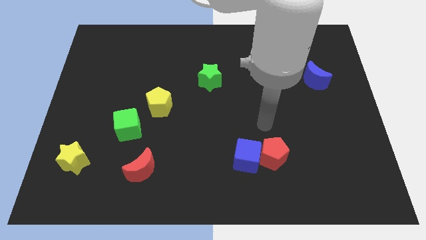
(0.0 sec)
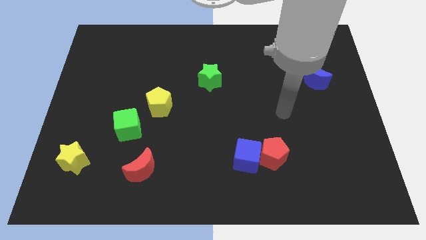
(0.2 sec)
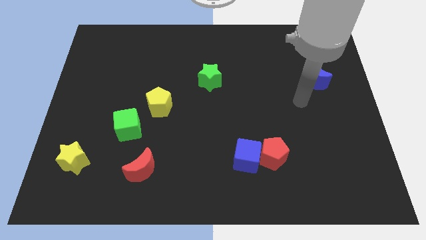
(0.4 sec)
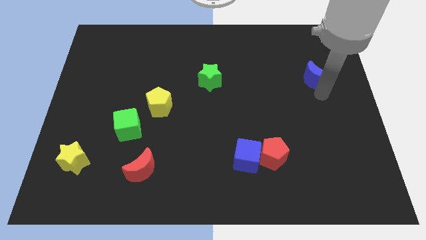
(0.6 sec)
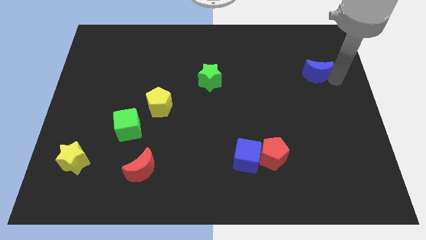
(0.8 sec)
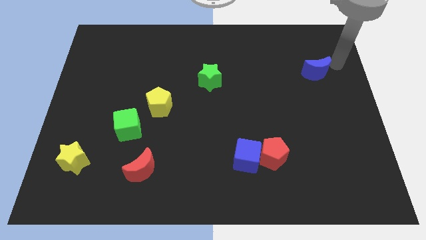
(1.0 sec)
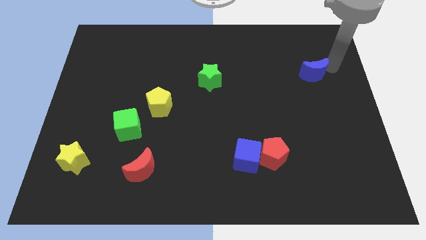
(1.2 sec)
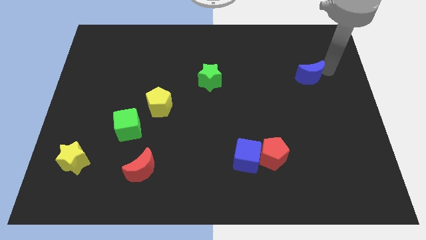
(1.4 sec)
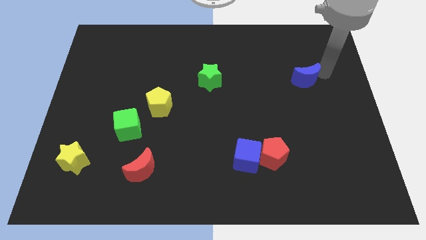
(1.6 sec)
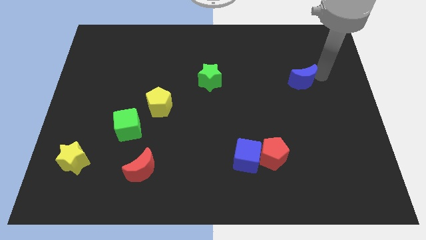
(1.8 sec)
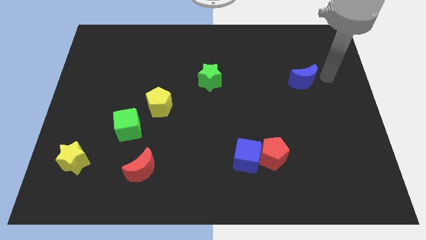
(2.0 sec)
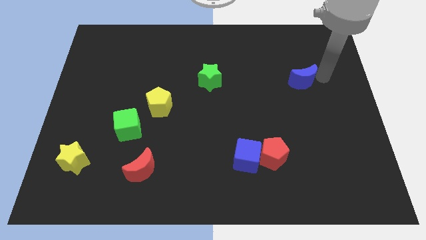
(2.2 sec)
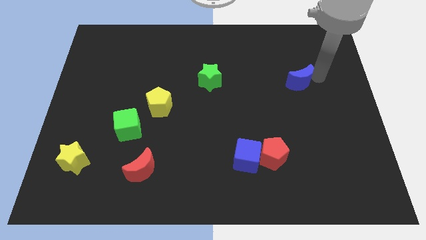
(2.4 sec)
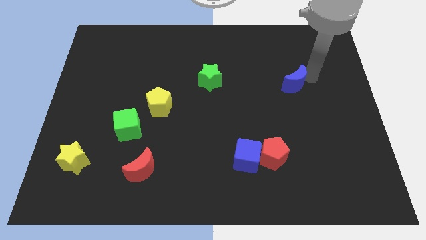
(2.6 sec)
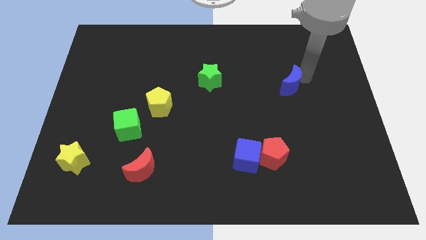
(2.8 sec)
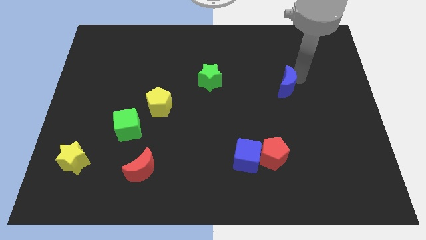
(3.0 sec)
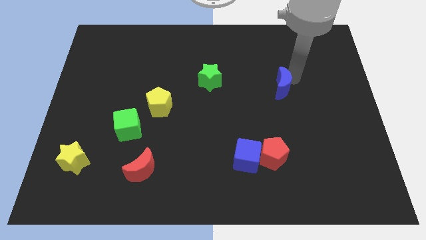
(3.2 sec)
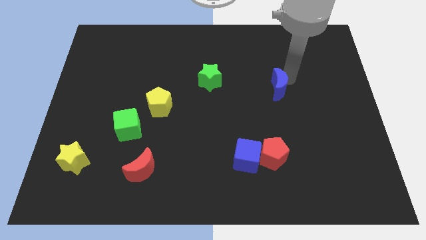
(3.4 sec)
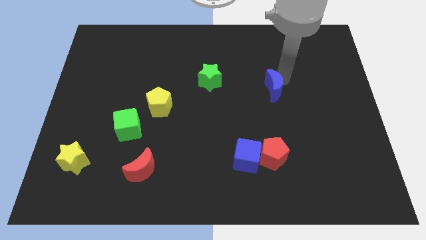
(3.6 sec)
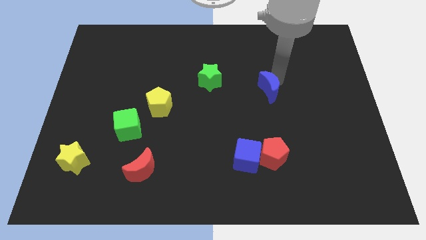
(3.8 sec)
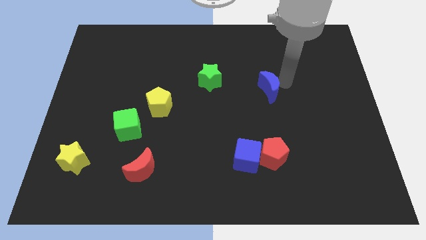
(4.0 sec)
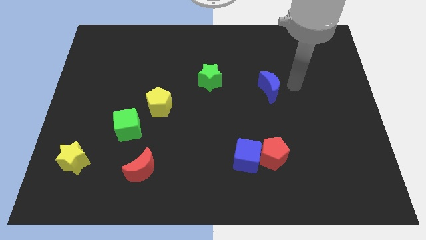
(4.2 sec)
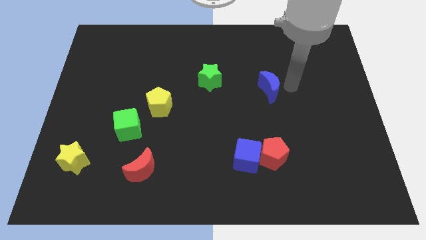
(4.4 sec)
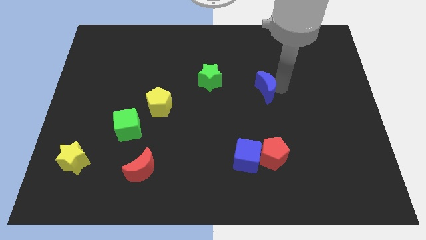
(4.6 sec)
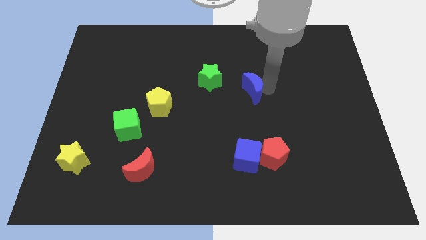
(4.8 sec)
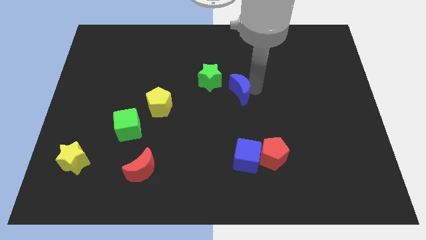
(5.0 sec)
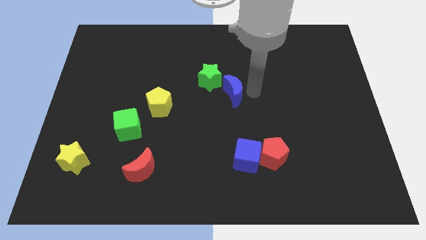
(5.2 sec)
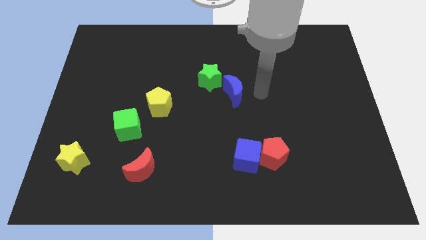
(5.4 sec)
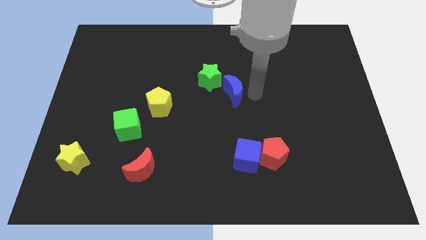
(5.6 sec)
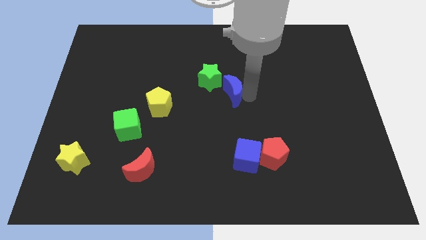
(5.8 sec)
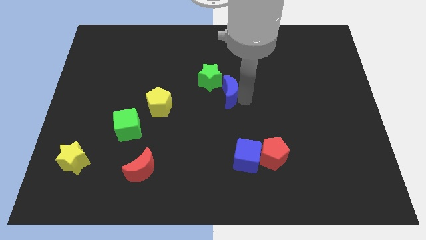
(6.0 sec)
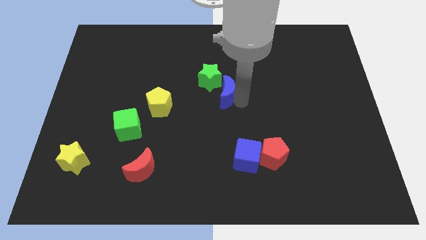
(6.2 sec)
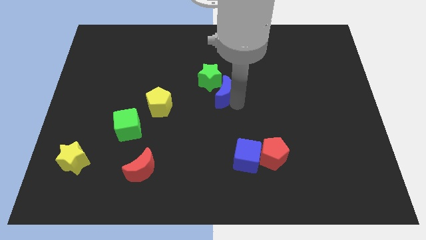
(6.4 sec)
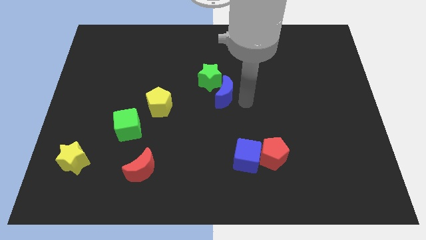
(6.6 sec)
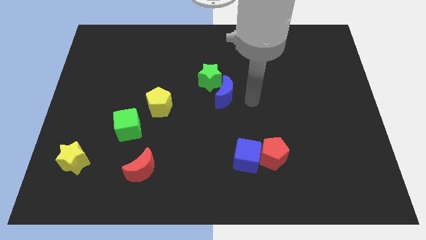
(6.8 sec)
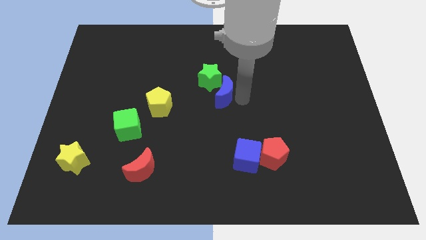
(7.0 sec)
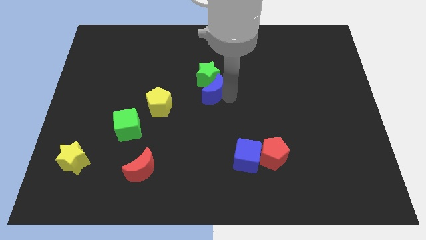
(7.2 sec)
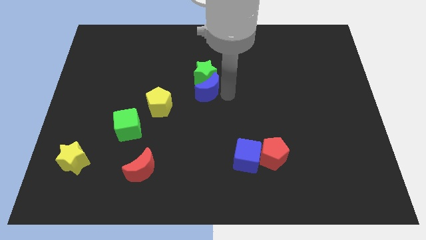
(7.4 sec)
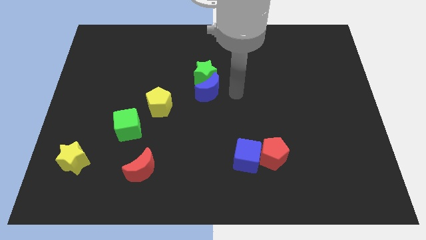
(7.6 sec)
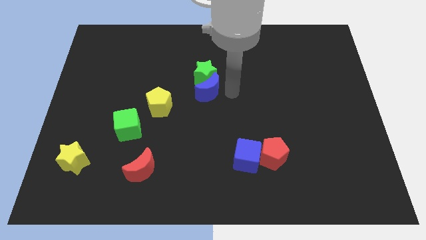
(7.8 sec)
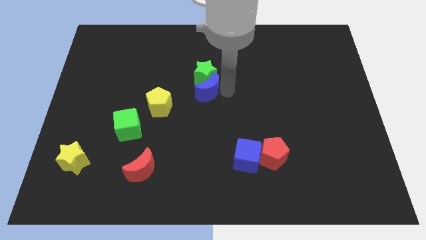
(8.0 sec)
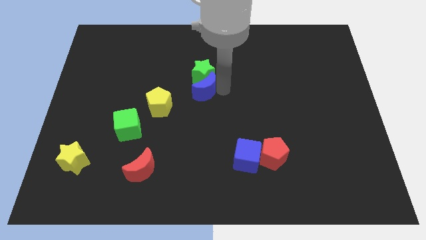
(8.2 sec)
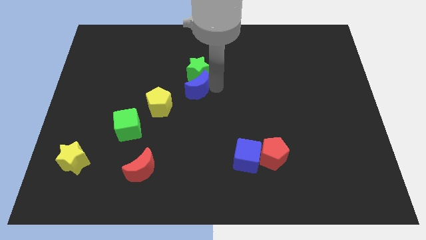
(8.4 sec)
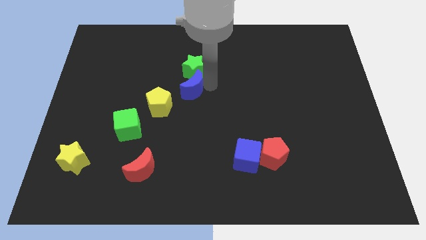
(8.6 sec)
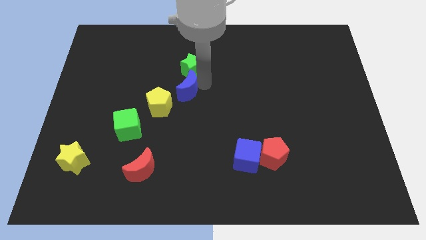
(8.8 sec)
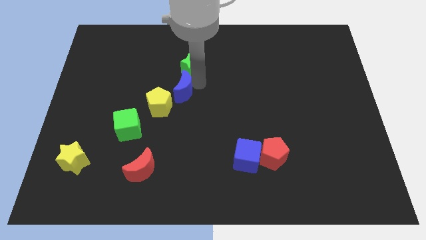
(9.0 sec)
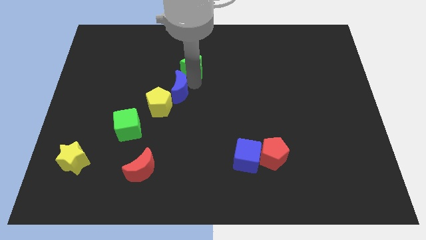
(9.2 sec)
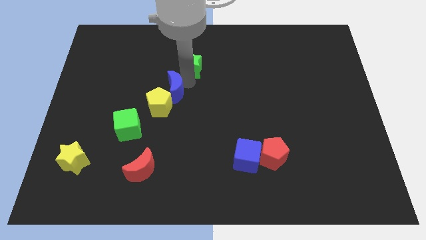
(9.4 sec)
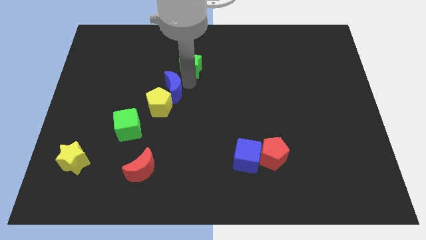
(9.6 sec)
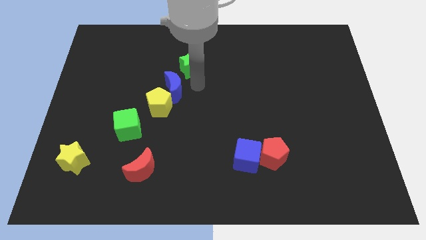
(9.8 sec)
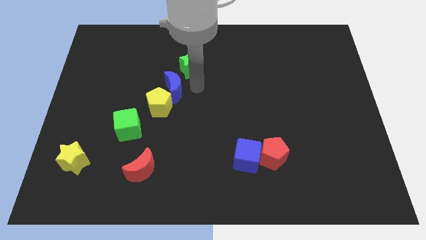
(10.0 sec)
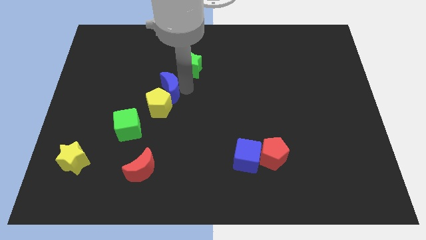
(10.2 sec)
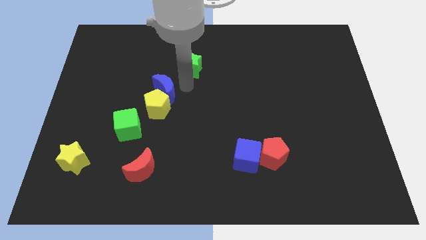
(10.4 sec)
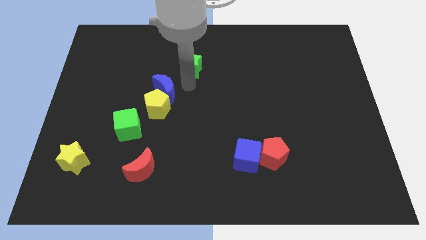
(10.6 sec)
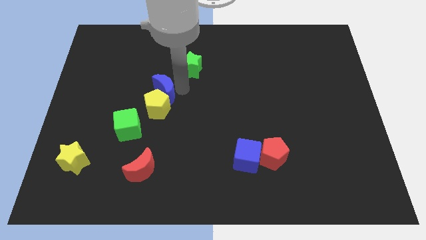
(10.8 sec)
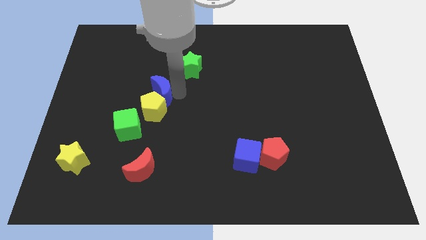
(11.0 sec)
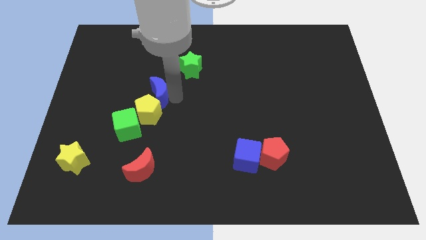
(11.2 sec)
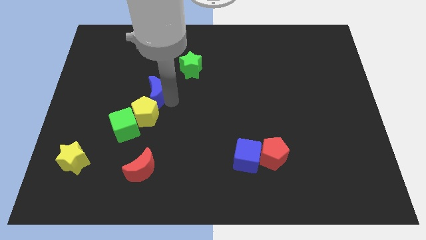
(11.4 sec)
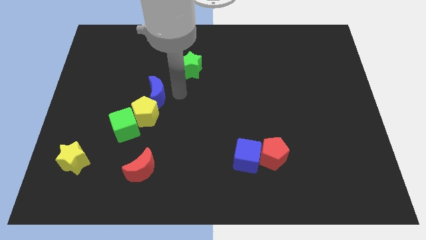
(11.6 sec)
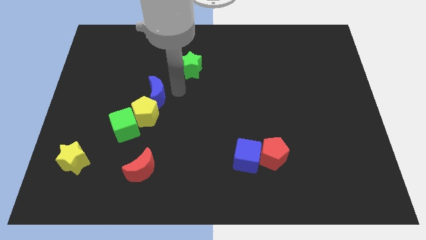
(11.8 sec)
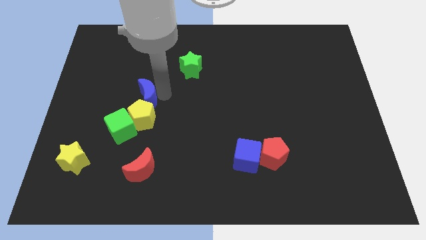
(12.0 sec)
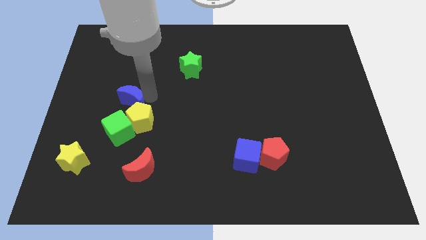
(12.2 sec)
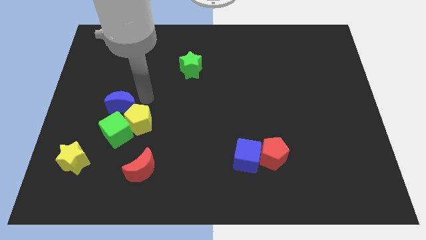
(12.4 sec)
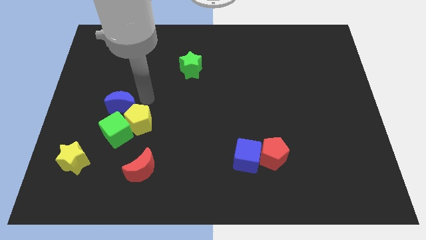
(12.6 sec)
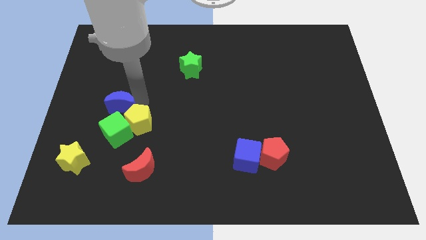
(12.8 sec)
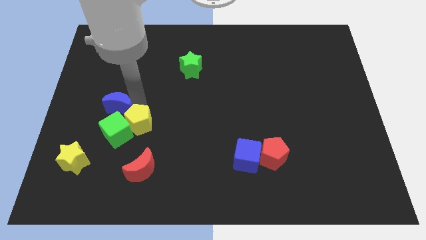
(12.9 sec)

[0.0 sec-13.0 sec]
slide the blue moon to the top left side of the green cube
